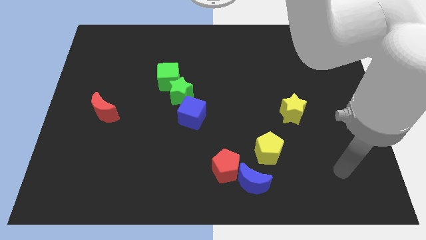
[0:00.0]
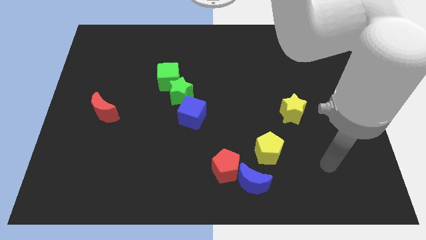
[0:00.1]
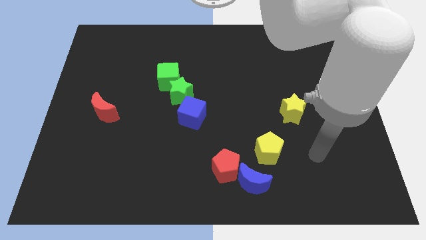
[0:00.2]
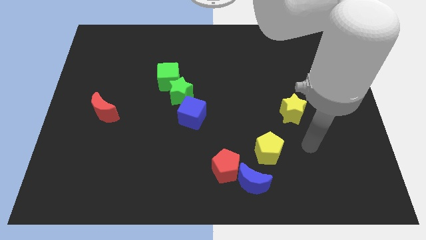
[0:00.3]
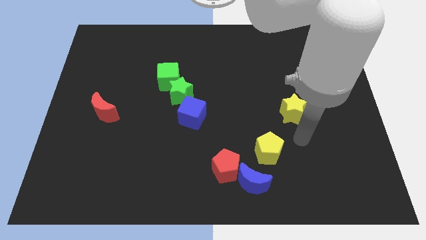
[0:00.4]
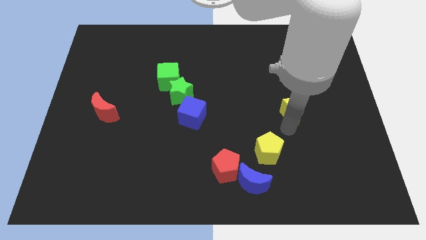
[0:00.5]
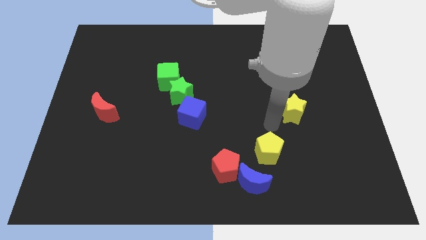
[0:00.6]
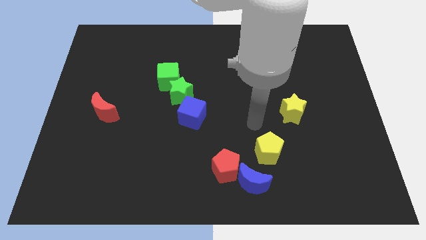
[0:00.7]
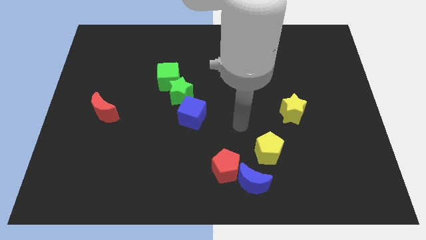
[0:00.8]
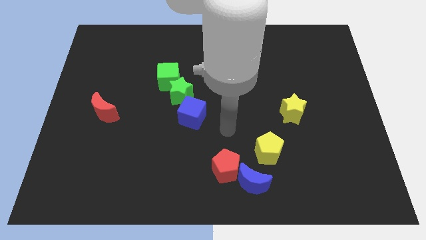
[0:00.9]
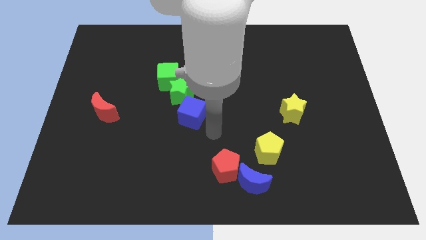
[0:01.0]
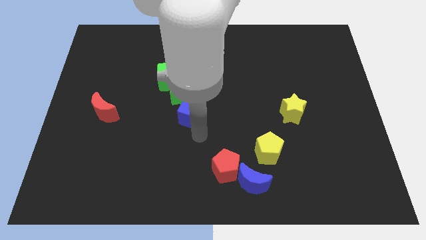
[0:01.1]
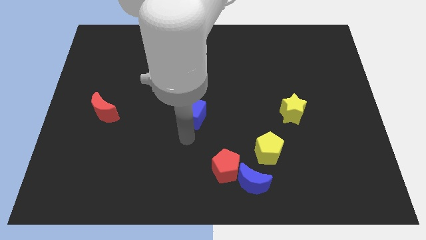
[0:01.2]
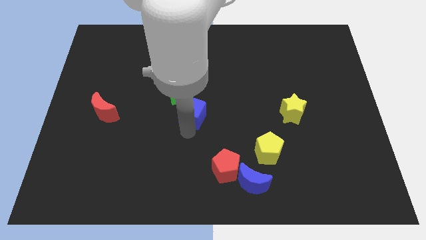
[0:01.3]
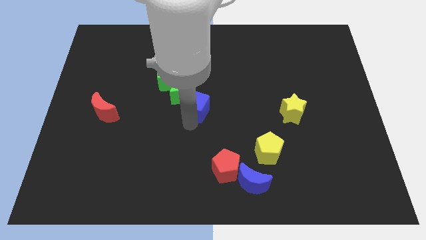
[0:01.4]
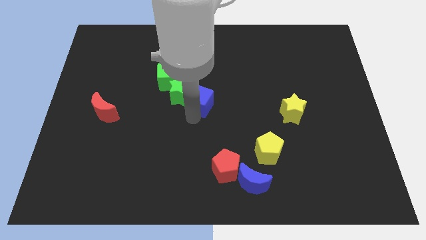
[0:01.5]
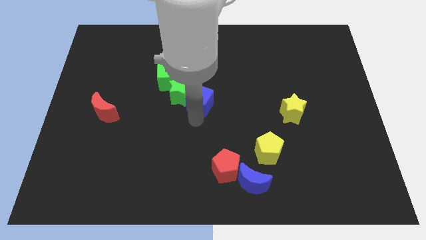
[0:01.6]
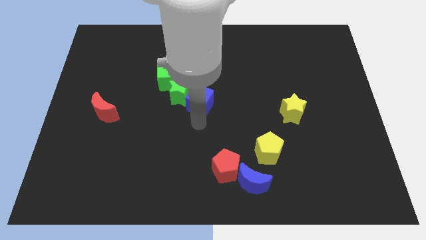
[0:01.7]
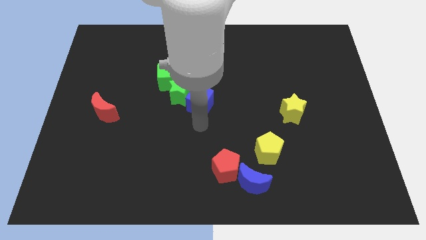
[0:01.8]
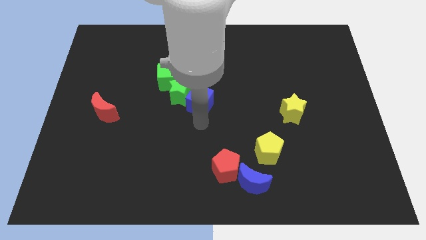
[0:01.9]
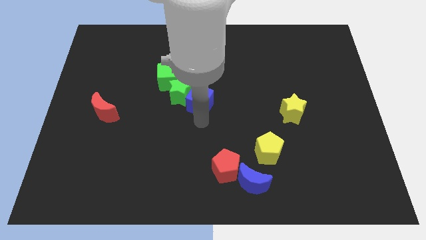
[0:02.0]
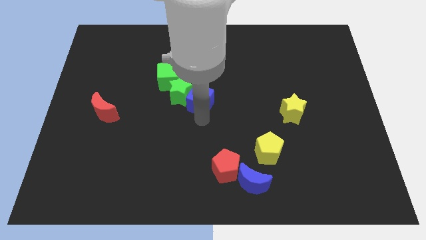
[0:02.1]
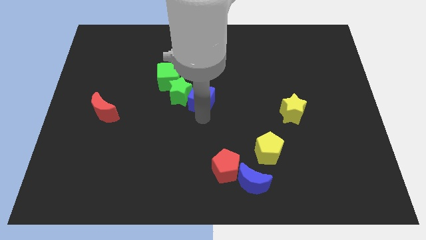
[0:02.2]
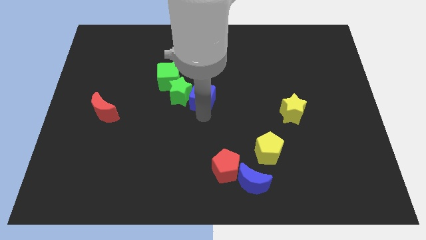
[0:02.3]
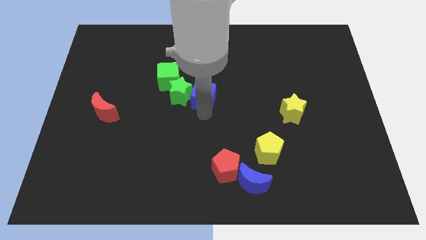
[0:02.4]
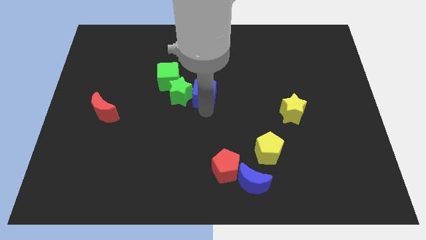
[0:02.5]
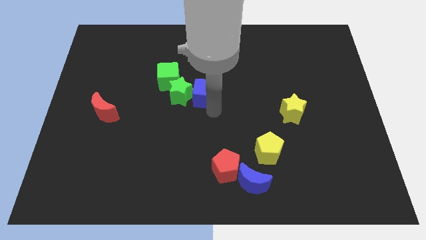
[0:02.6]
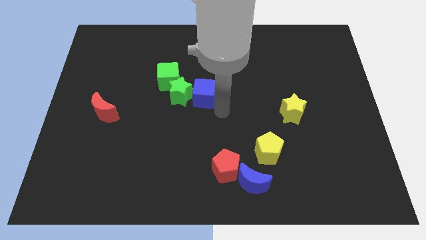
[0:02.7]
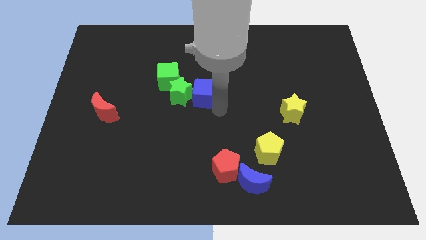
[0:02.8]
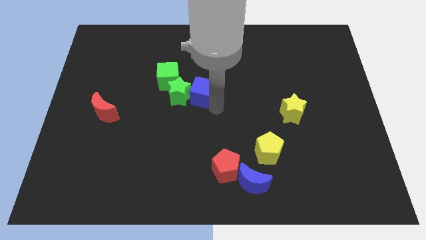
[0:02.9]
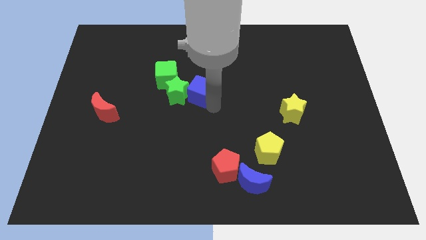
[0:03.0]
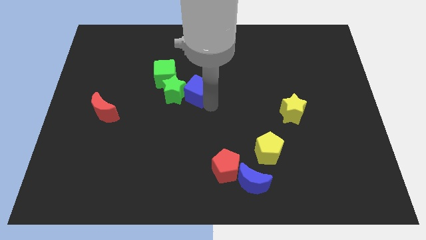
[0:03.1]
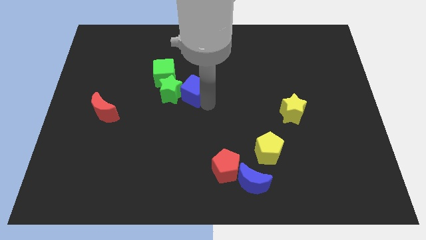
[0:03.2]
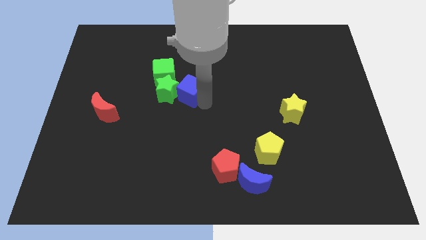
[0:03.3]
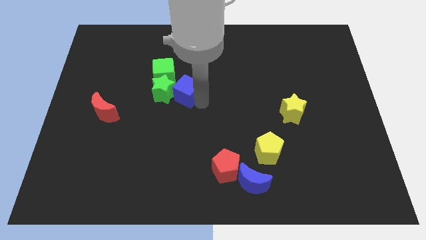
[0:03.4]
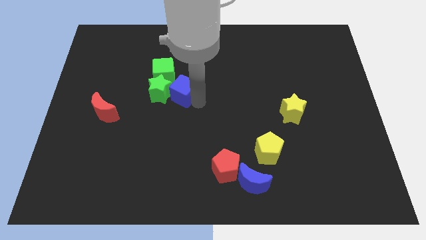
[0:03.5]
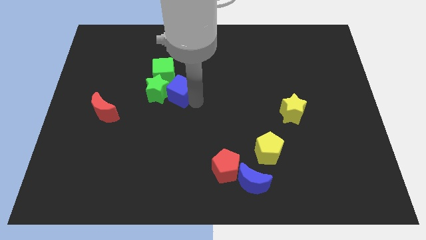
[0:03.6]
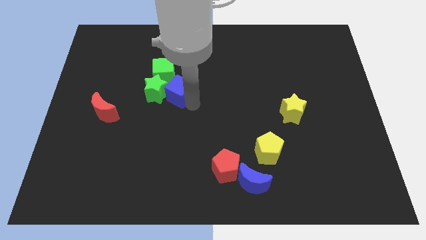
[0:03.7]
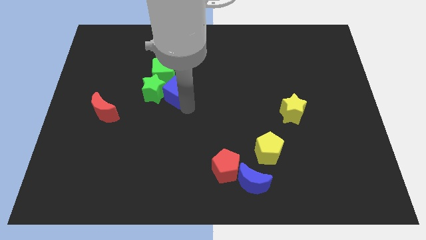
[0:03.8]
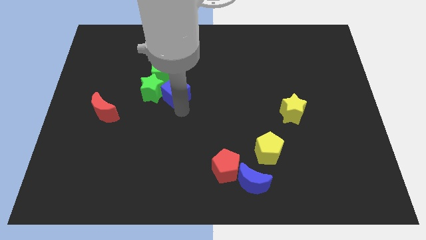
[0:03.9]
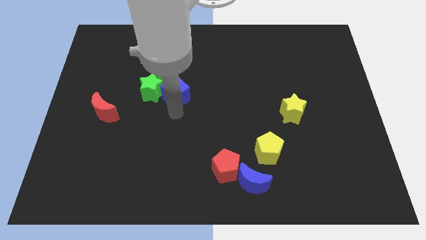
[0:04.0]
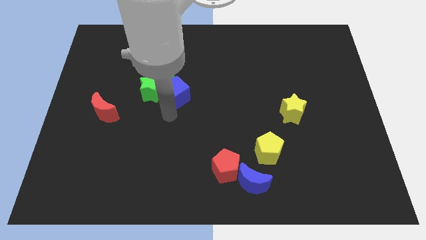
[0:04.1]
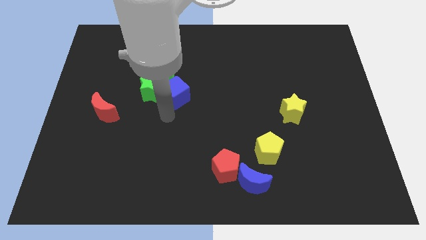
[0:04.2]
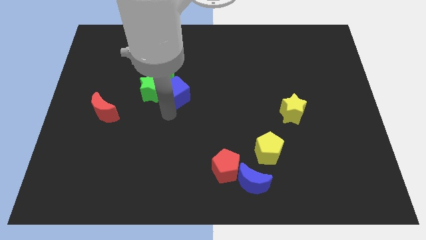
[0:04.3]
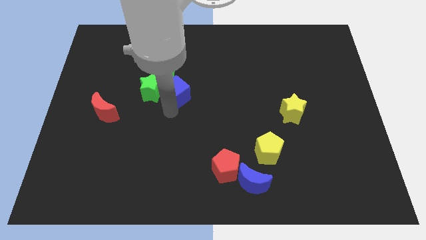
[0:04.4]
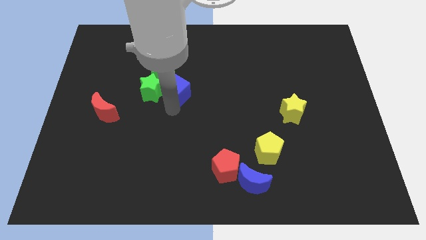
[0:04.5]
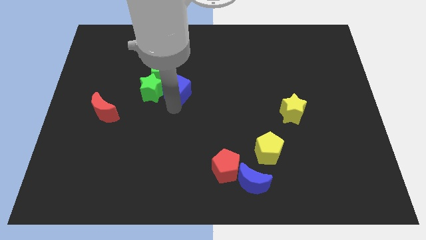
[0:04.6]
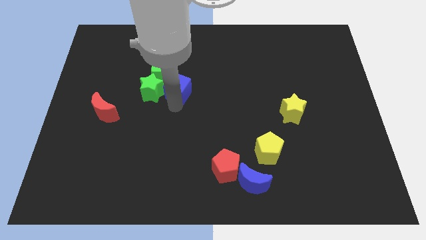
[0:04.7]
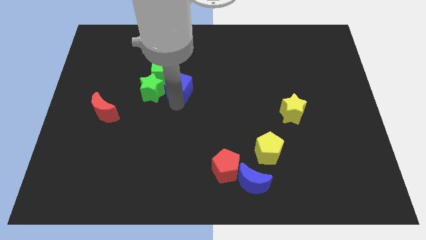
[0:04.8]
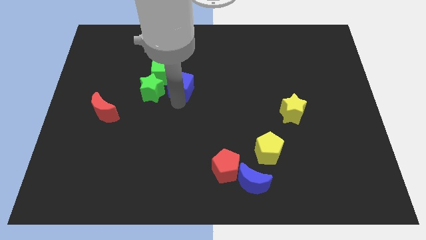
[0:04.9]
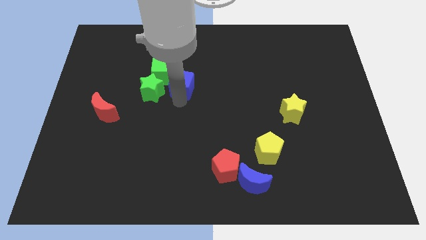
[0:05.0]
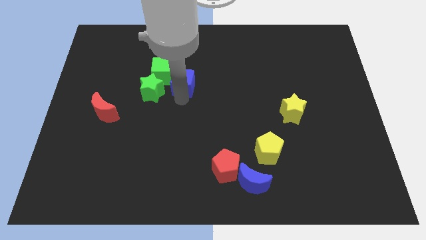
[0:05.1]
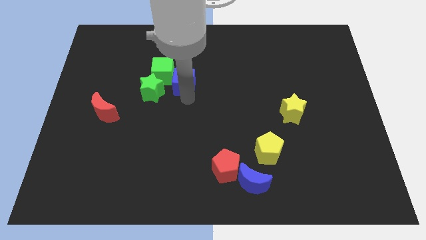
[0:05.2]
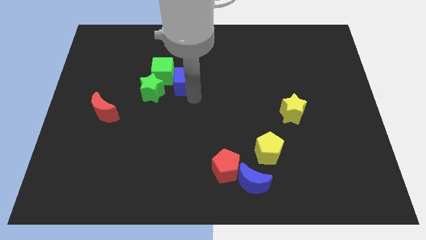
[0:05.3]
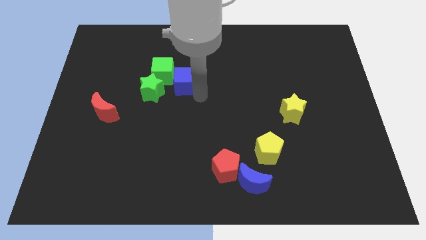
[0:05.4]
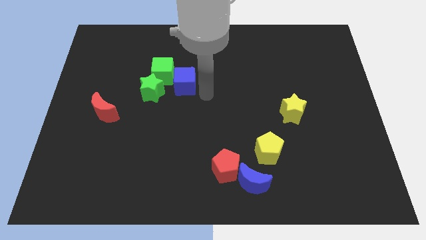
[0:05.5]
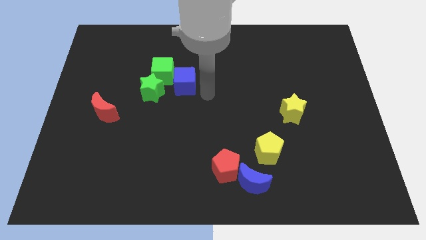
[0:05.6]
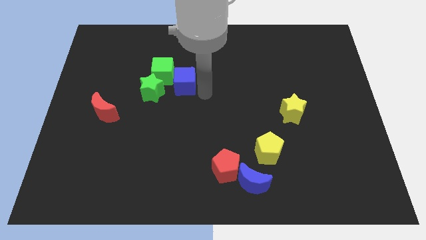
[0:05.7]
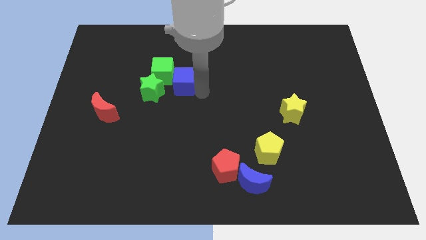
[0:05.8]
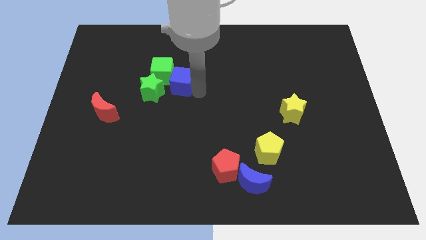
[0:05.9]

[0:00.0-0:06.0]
move the blue cube to the green cube

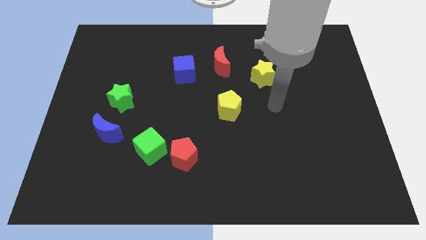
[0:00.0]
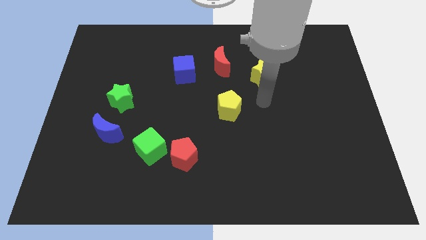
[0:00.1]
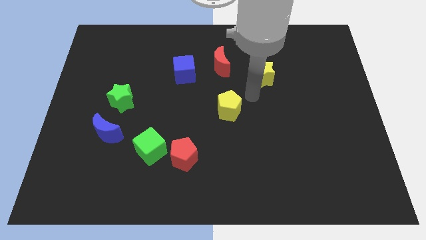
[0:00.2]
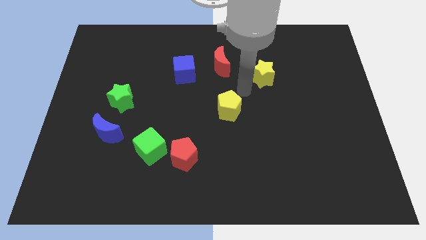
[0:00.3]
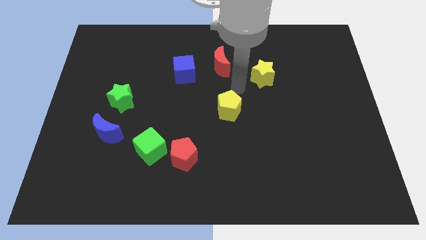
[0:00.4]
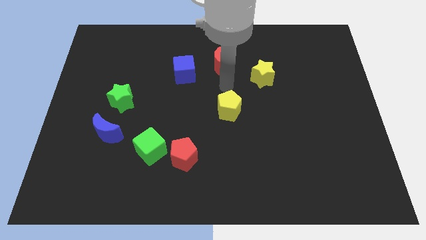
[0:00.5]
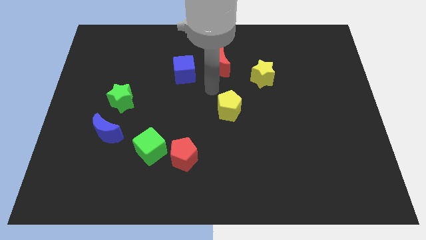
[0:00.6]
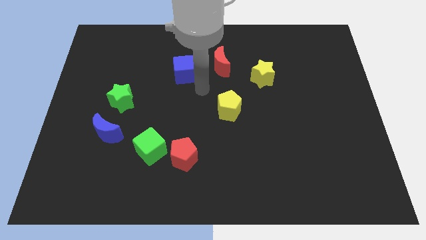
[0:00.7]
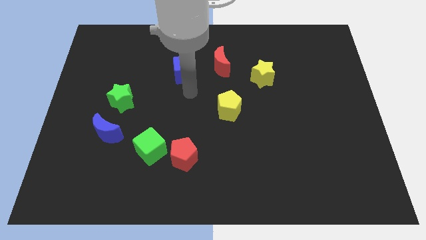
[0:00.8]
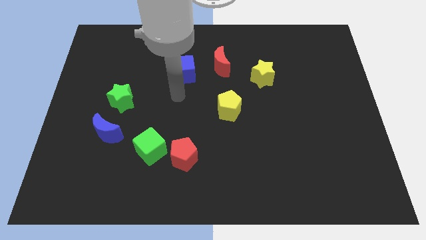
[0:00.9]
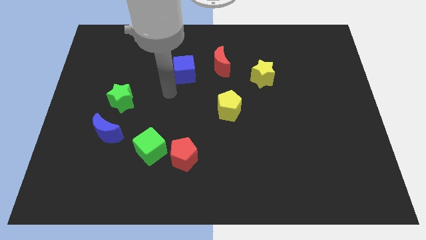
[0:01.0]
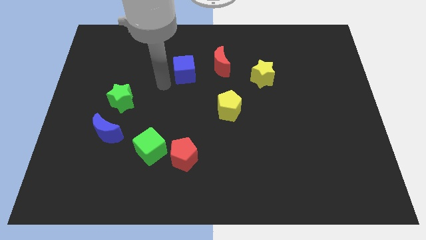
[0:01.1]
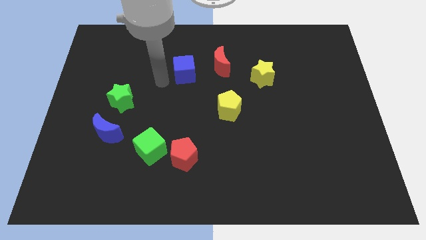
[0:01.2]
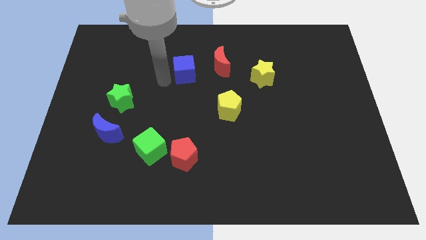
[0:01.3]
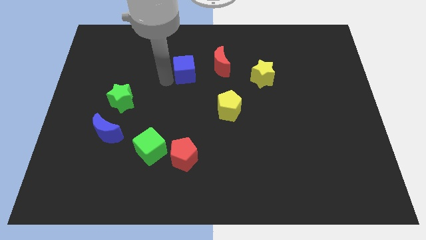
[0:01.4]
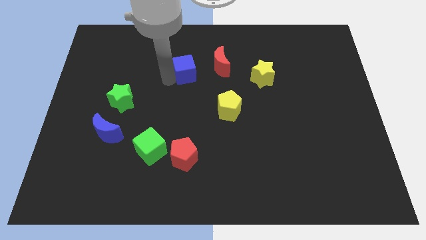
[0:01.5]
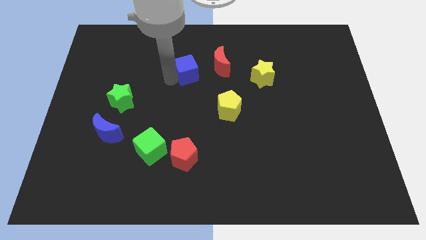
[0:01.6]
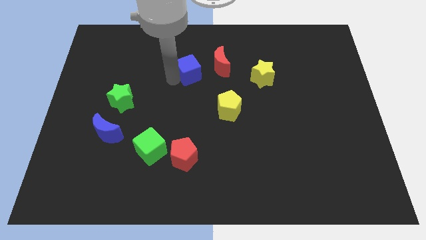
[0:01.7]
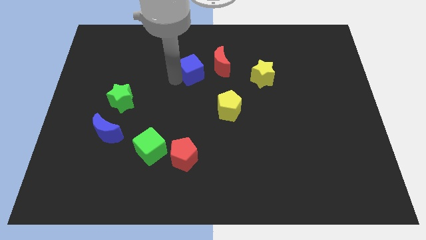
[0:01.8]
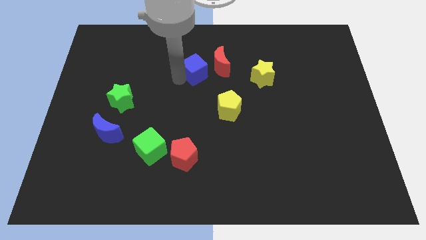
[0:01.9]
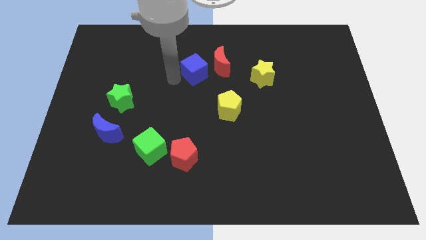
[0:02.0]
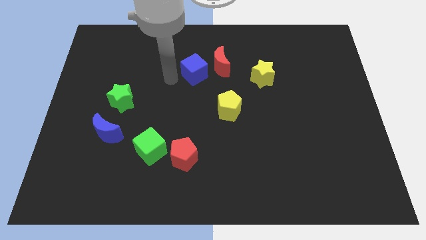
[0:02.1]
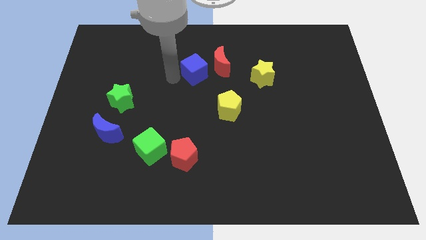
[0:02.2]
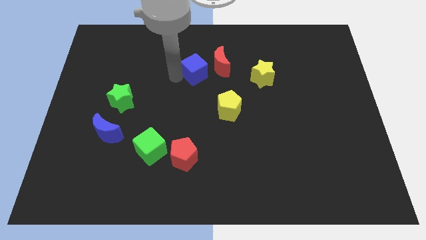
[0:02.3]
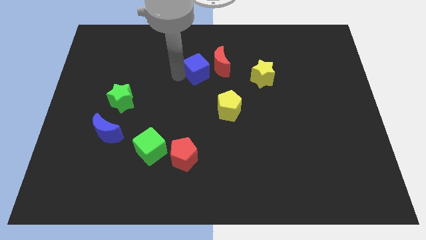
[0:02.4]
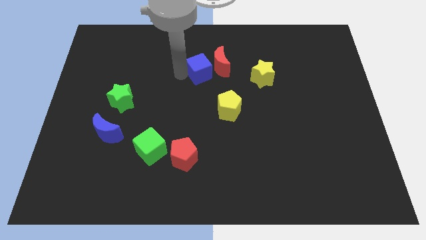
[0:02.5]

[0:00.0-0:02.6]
put the blue cube to the red moon
